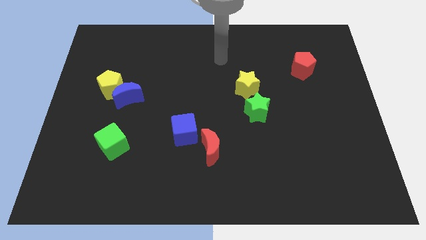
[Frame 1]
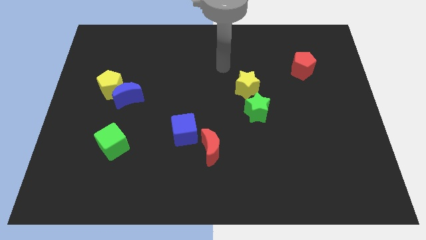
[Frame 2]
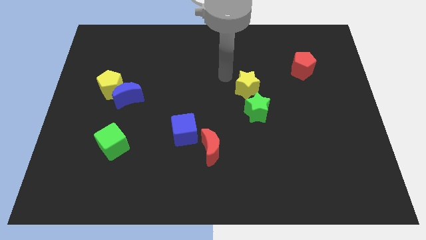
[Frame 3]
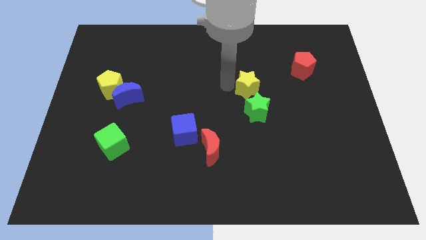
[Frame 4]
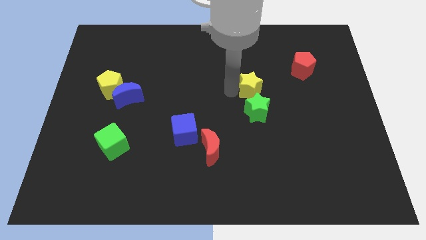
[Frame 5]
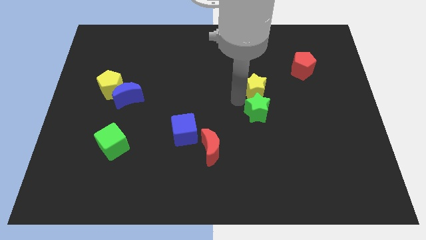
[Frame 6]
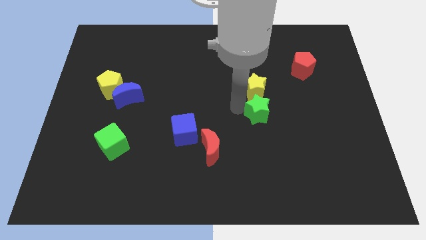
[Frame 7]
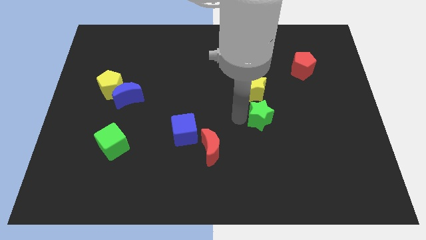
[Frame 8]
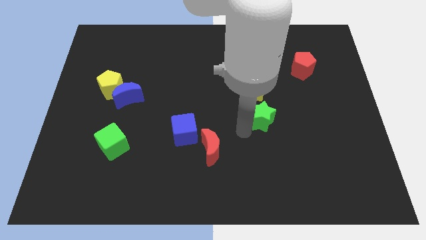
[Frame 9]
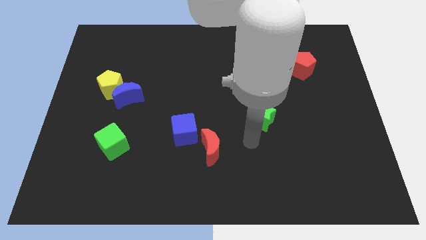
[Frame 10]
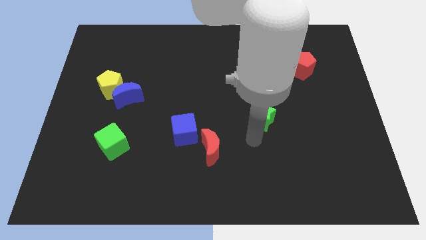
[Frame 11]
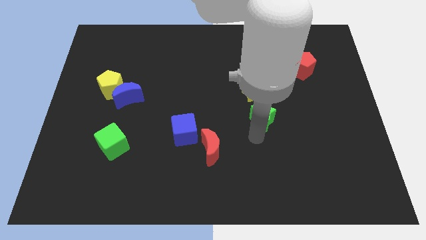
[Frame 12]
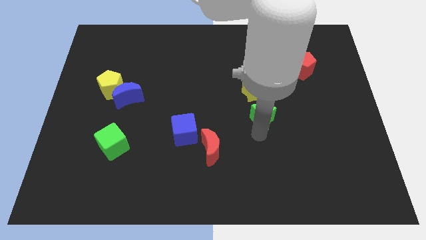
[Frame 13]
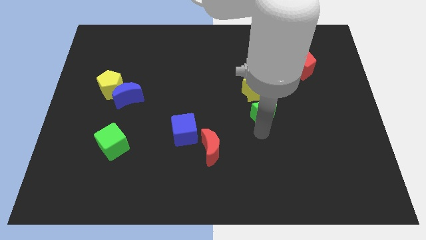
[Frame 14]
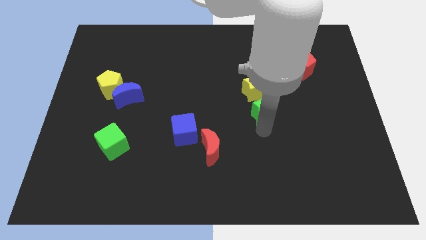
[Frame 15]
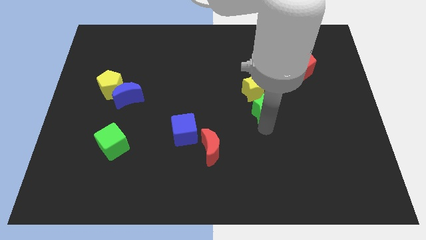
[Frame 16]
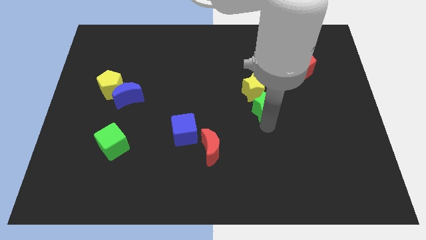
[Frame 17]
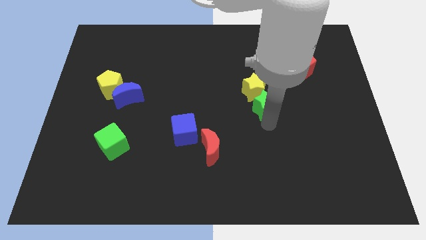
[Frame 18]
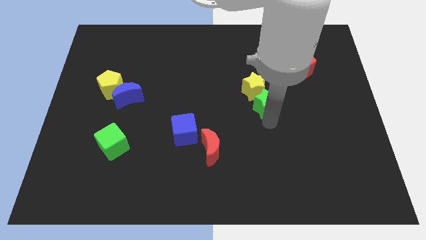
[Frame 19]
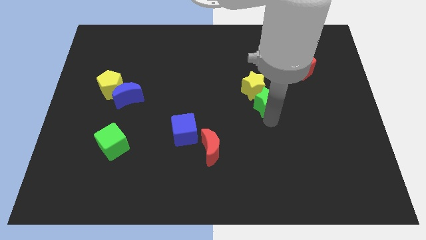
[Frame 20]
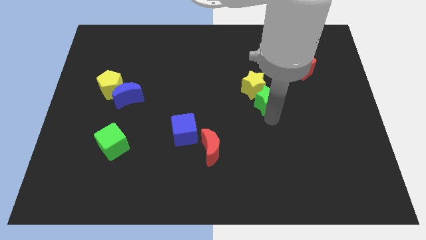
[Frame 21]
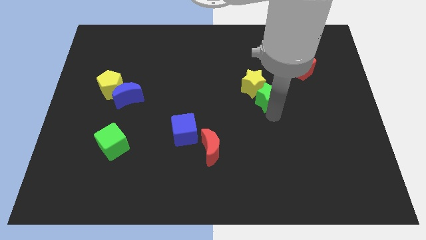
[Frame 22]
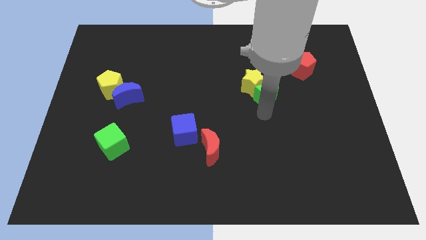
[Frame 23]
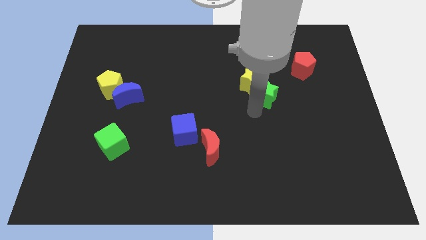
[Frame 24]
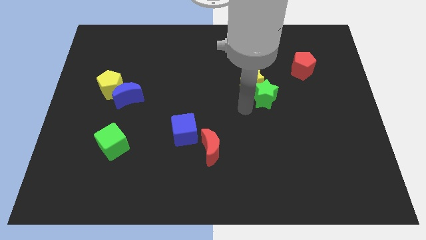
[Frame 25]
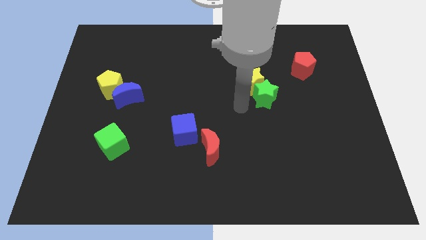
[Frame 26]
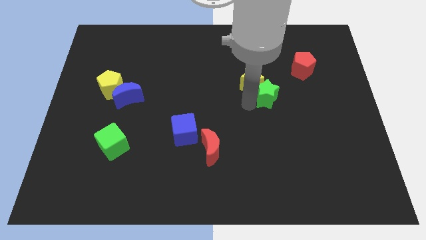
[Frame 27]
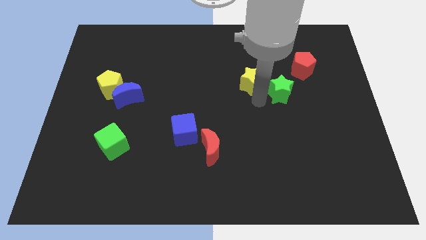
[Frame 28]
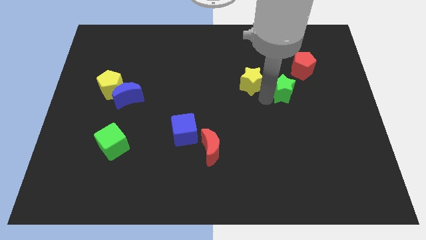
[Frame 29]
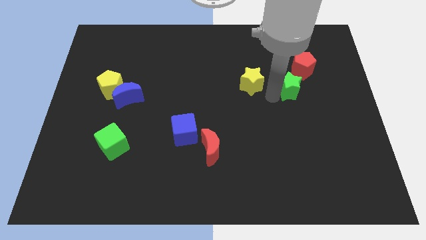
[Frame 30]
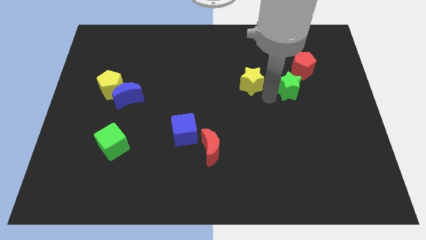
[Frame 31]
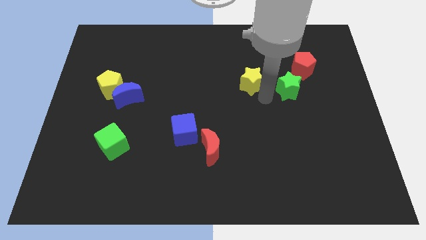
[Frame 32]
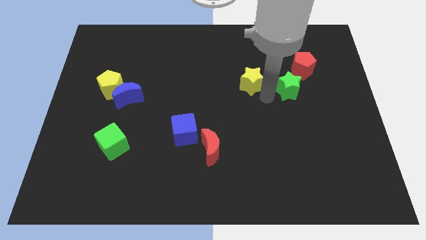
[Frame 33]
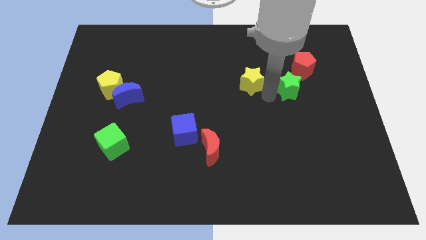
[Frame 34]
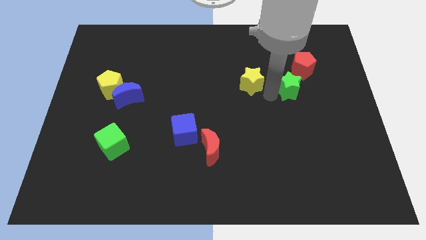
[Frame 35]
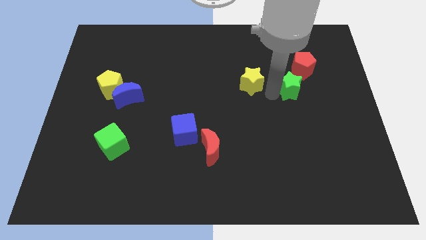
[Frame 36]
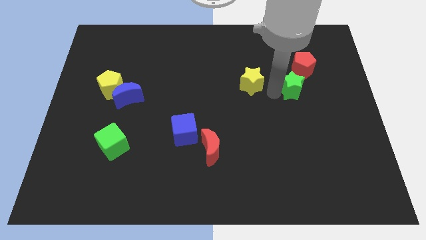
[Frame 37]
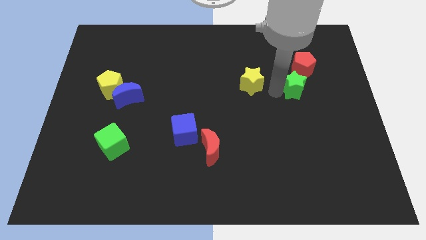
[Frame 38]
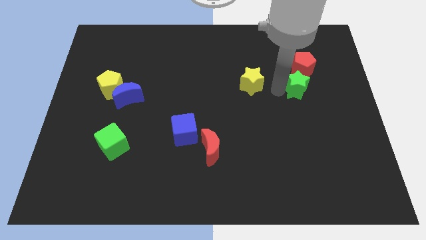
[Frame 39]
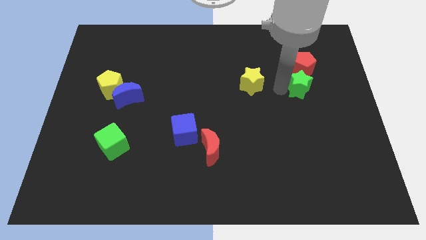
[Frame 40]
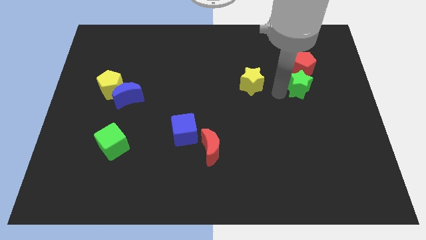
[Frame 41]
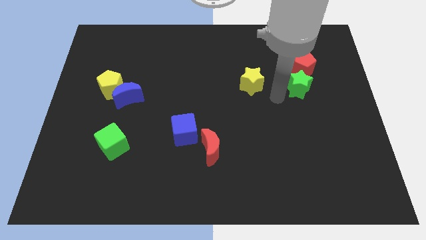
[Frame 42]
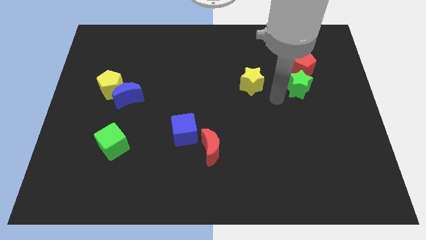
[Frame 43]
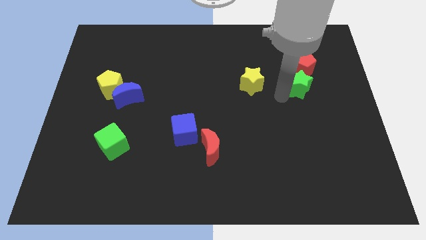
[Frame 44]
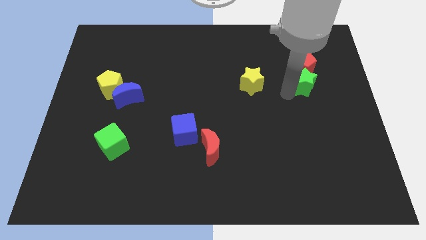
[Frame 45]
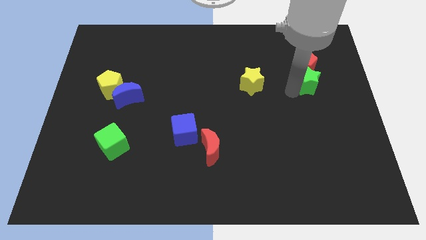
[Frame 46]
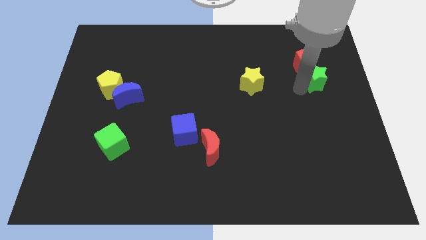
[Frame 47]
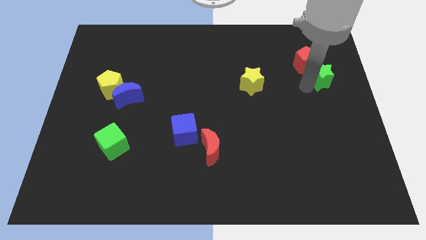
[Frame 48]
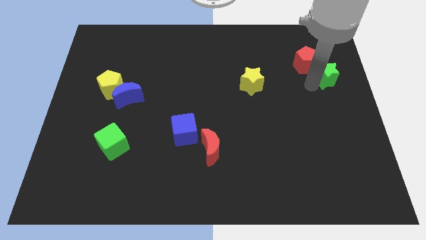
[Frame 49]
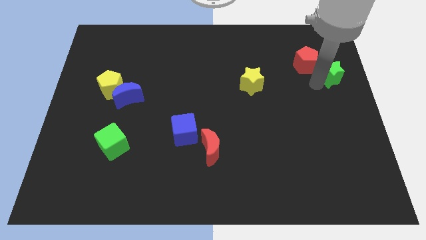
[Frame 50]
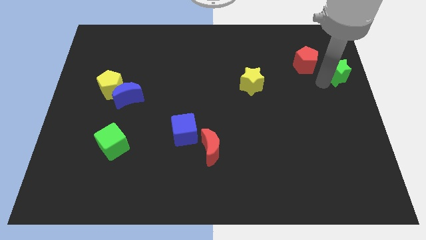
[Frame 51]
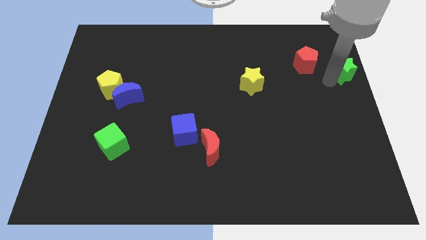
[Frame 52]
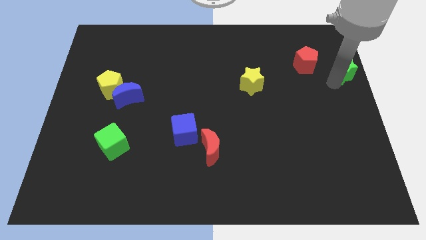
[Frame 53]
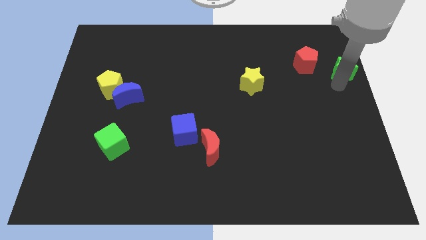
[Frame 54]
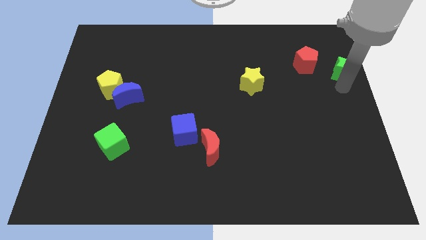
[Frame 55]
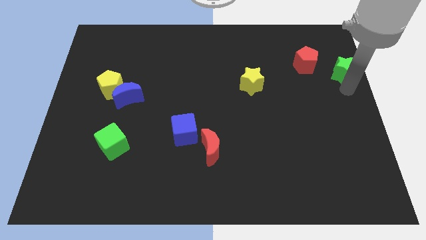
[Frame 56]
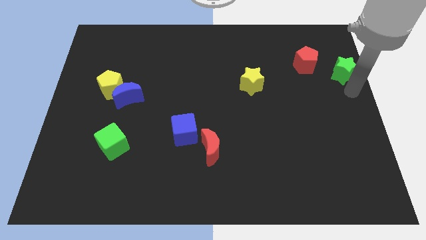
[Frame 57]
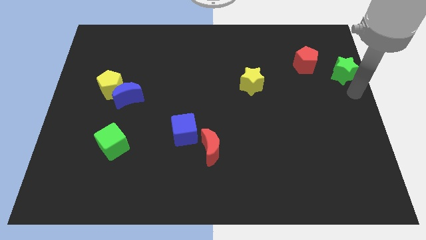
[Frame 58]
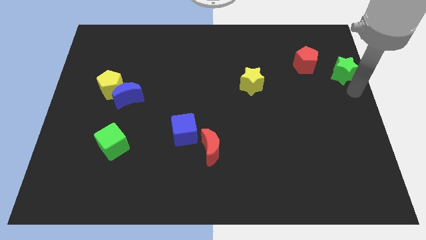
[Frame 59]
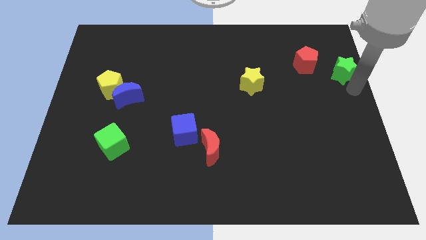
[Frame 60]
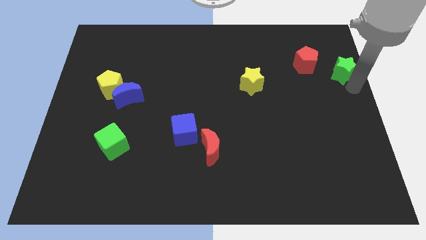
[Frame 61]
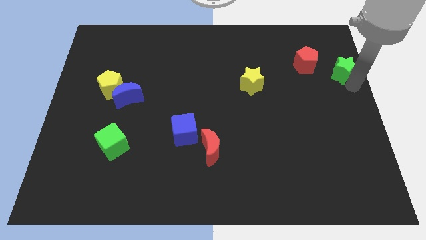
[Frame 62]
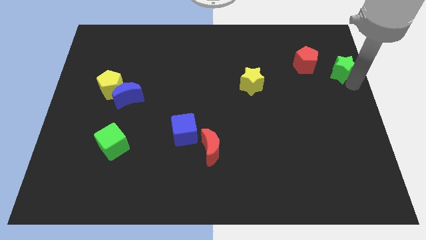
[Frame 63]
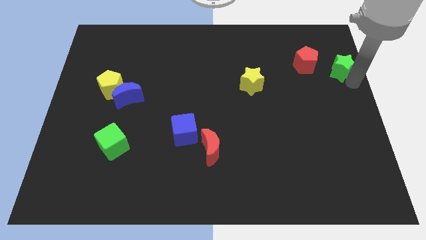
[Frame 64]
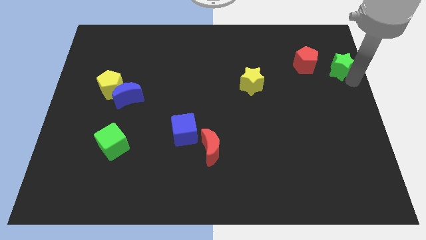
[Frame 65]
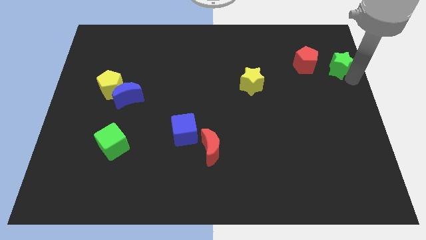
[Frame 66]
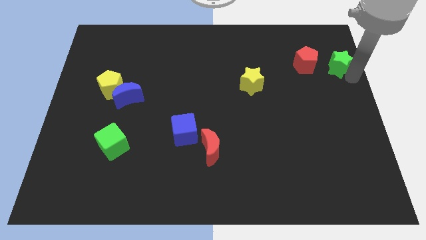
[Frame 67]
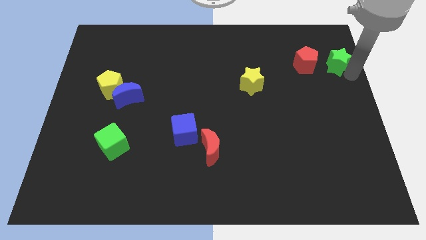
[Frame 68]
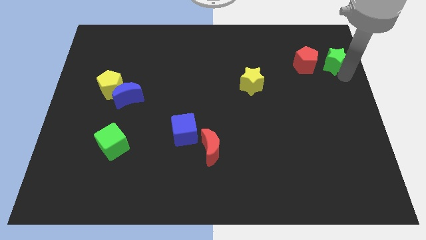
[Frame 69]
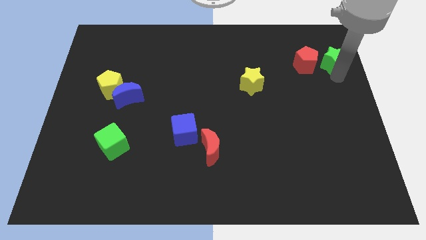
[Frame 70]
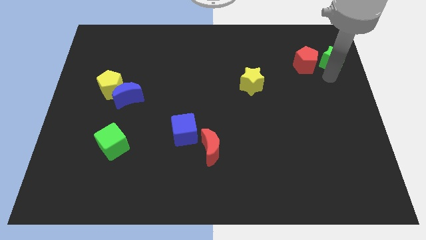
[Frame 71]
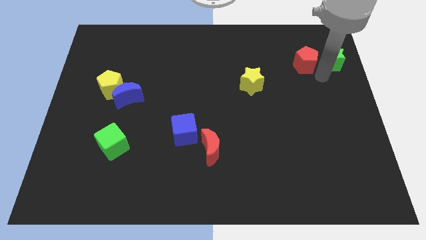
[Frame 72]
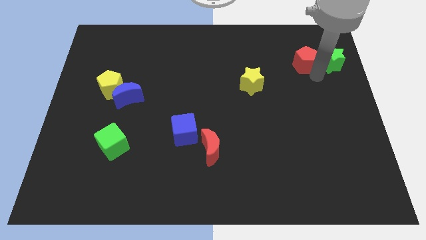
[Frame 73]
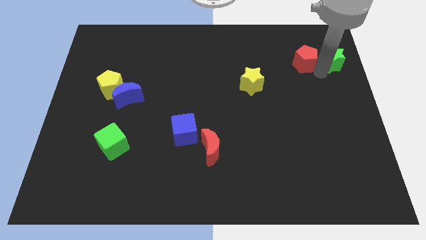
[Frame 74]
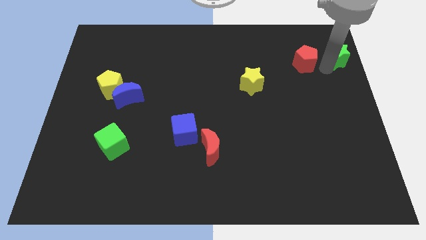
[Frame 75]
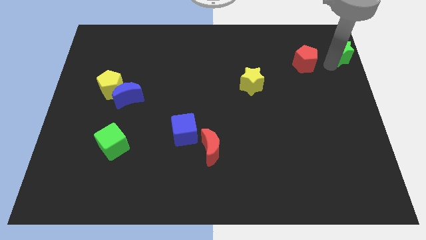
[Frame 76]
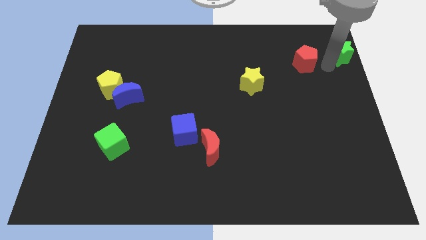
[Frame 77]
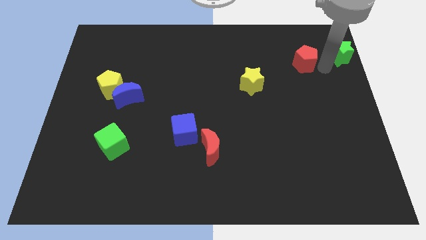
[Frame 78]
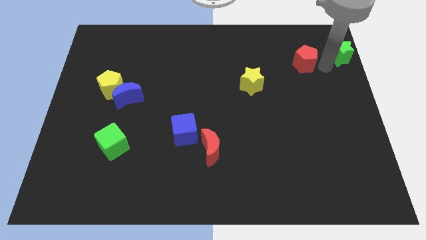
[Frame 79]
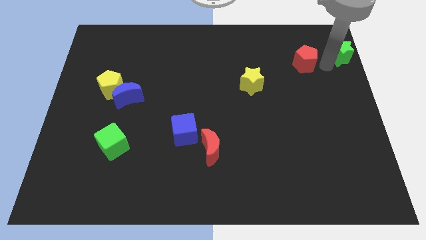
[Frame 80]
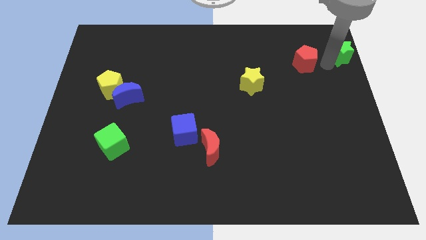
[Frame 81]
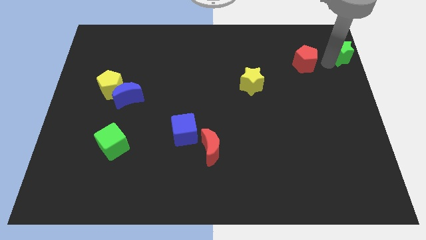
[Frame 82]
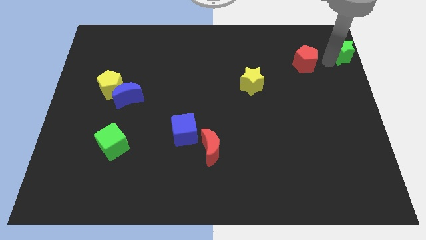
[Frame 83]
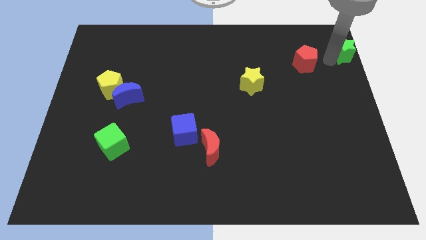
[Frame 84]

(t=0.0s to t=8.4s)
push the green star to the top right corner
